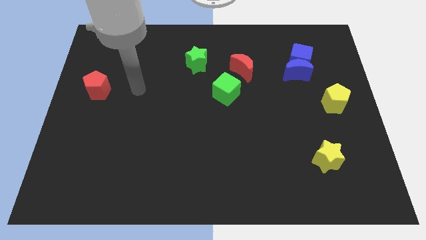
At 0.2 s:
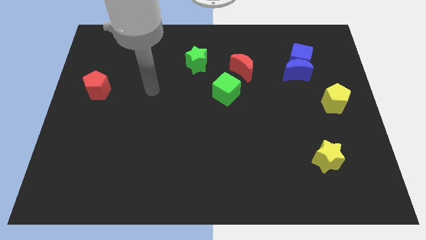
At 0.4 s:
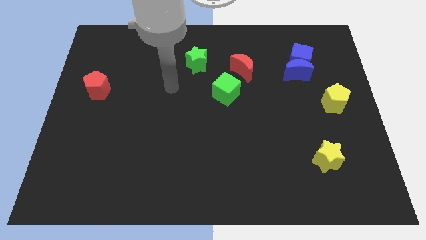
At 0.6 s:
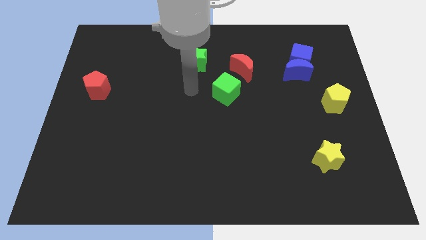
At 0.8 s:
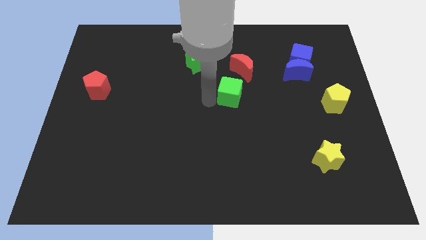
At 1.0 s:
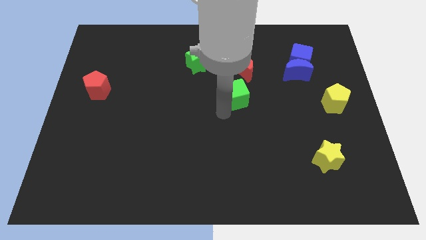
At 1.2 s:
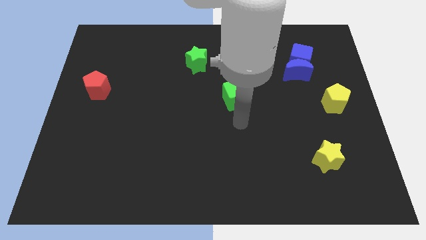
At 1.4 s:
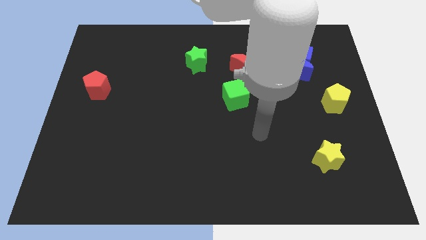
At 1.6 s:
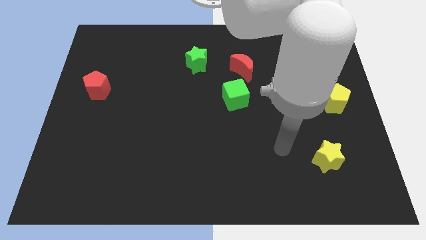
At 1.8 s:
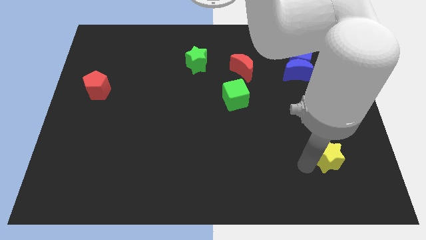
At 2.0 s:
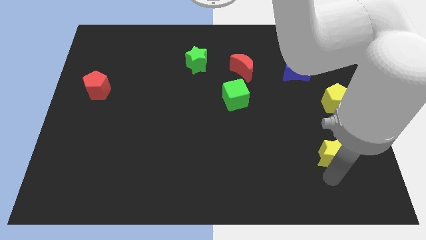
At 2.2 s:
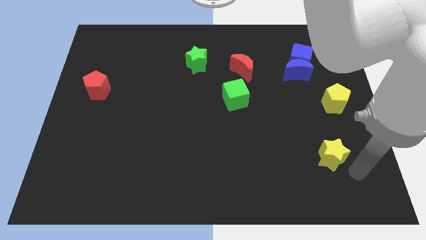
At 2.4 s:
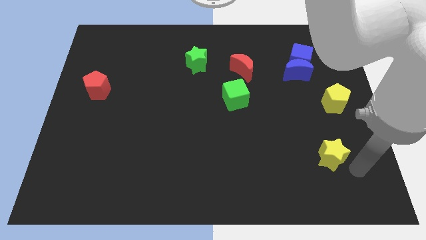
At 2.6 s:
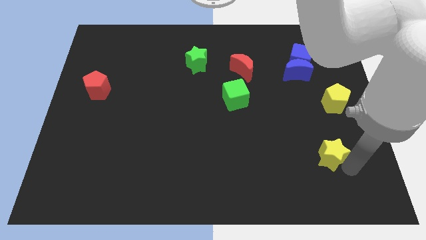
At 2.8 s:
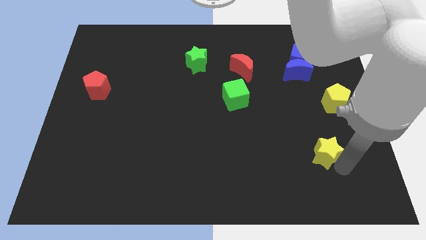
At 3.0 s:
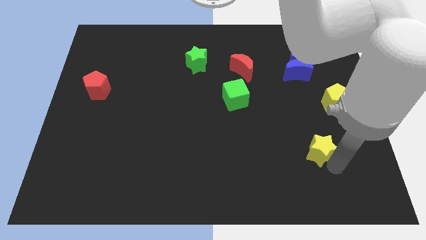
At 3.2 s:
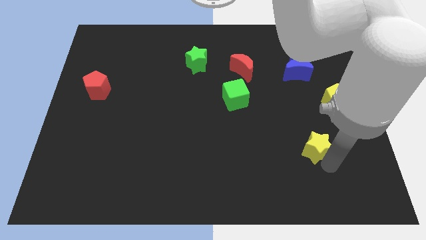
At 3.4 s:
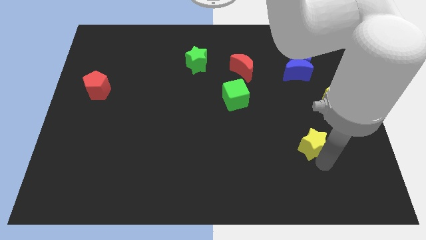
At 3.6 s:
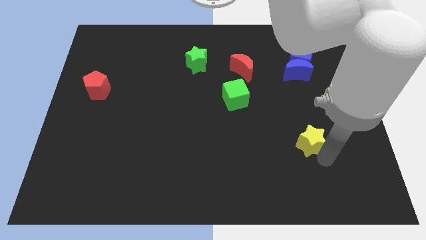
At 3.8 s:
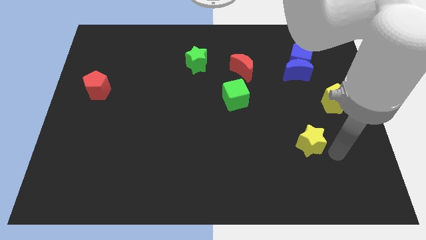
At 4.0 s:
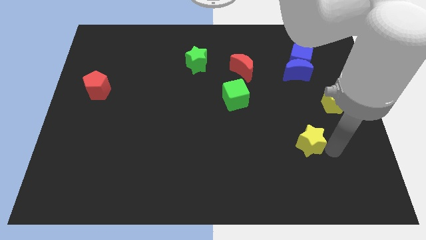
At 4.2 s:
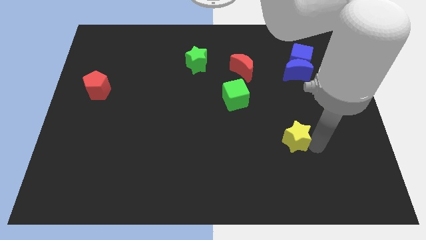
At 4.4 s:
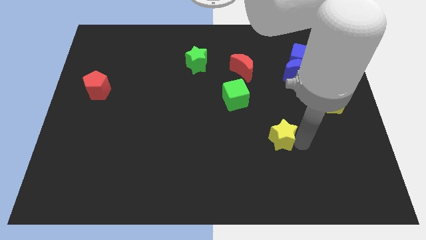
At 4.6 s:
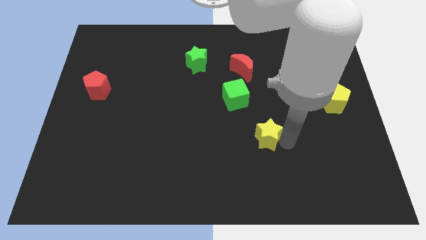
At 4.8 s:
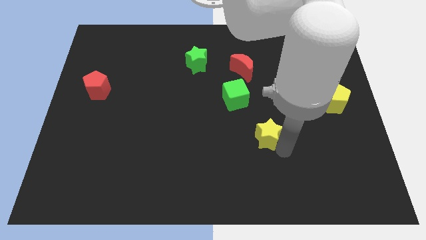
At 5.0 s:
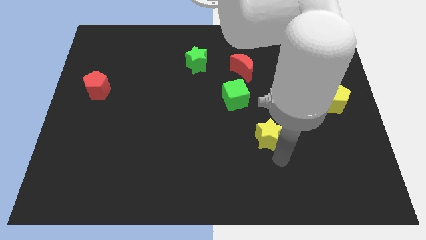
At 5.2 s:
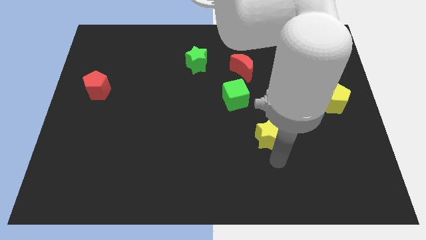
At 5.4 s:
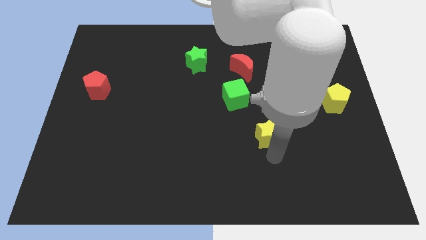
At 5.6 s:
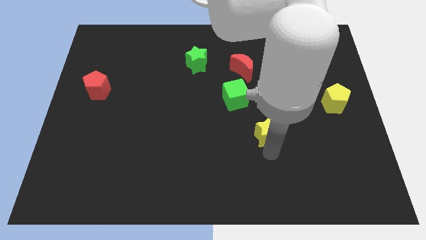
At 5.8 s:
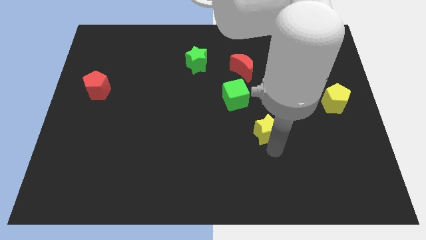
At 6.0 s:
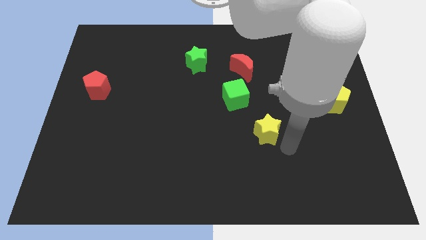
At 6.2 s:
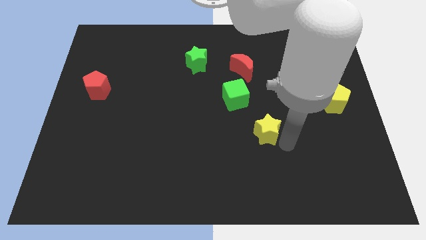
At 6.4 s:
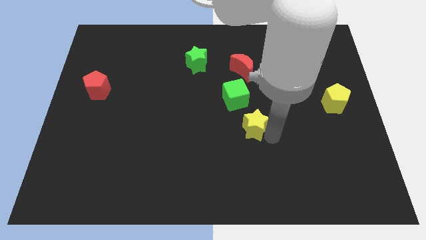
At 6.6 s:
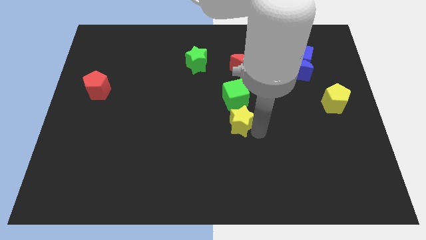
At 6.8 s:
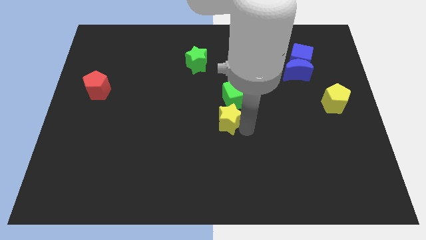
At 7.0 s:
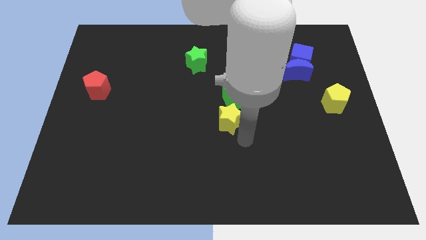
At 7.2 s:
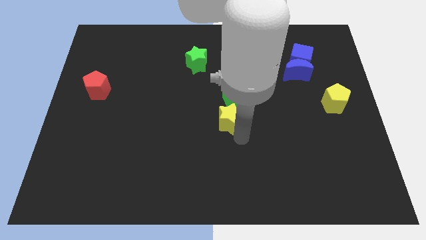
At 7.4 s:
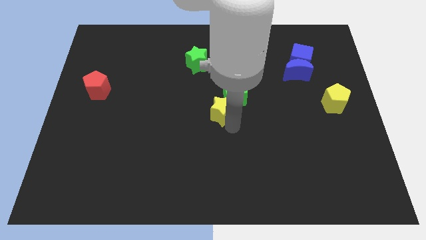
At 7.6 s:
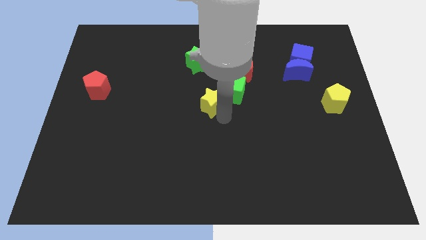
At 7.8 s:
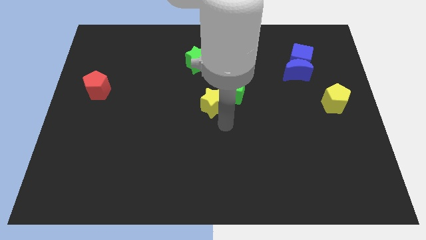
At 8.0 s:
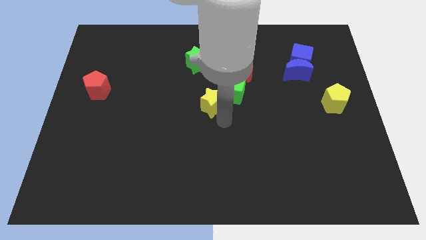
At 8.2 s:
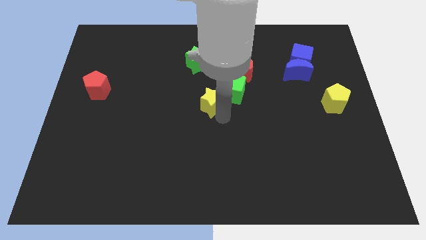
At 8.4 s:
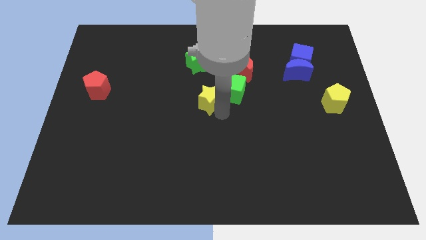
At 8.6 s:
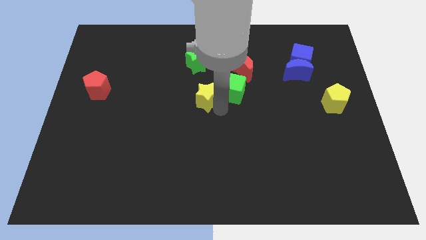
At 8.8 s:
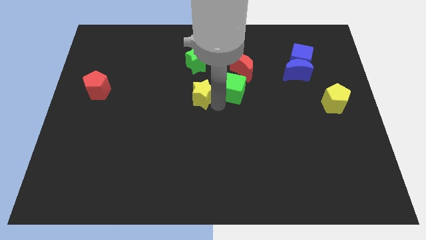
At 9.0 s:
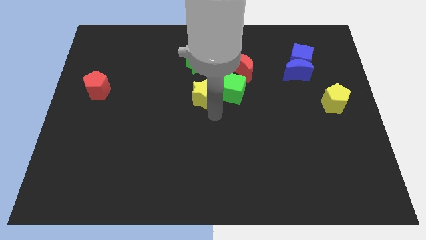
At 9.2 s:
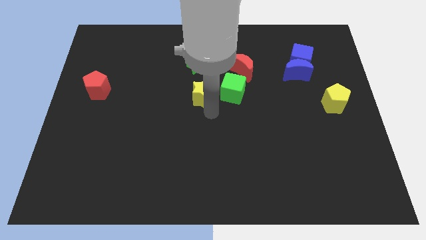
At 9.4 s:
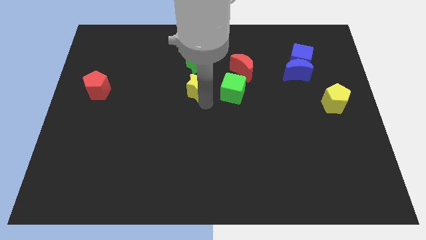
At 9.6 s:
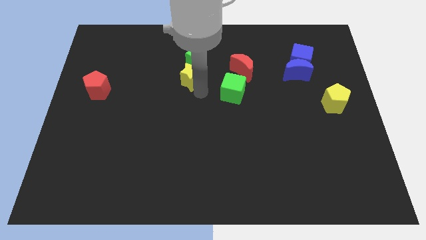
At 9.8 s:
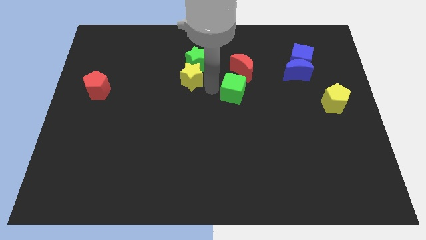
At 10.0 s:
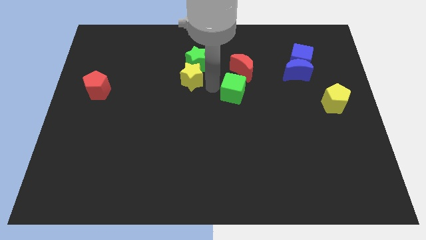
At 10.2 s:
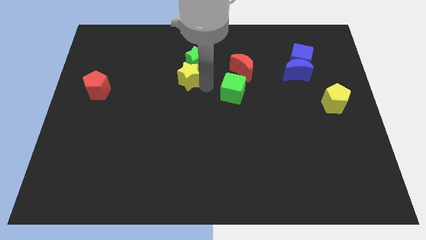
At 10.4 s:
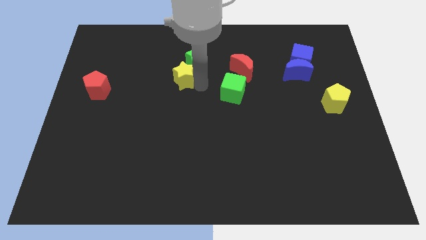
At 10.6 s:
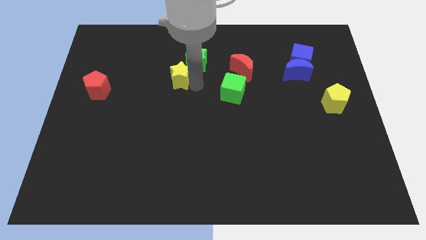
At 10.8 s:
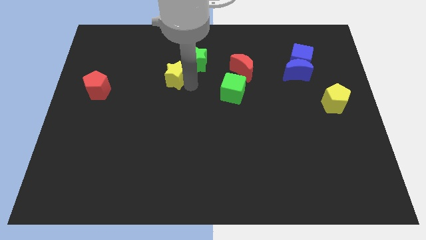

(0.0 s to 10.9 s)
move the yellow star left of the green star

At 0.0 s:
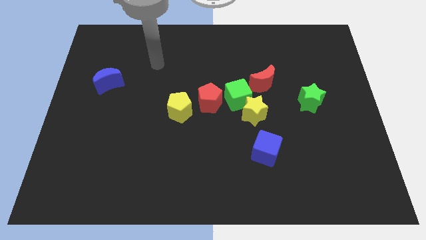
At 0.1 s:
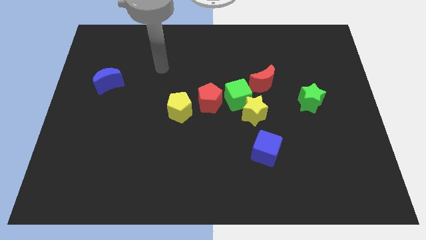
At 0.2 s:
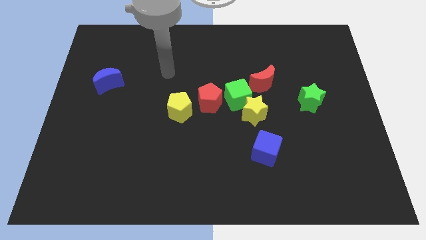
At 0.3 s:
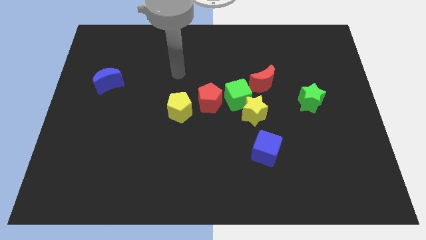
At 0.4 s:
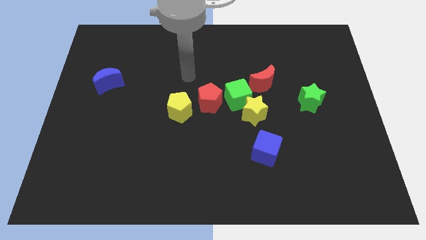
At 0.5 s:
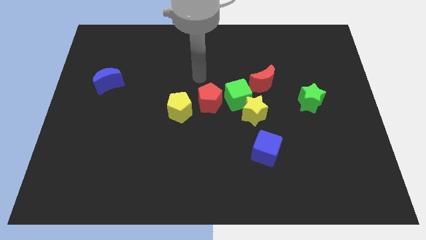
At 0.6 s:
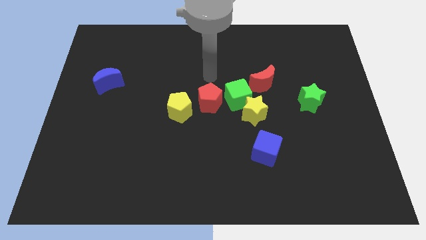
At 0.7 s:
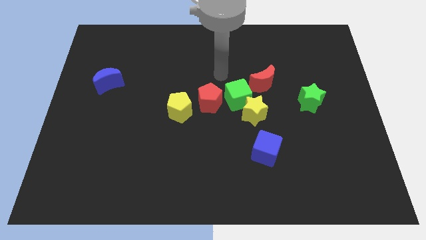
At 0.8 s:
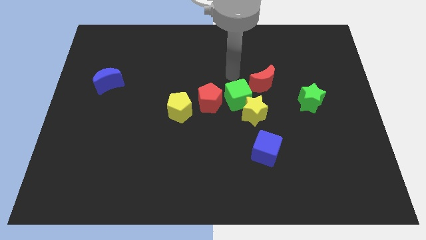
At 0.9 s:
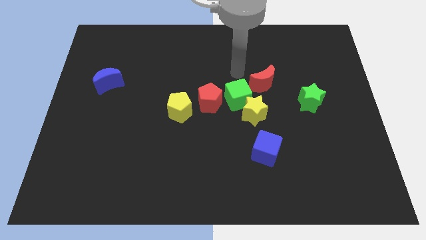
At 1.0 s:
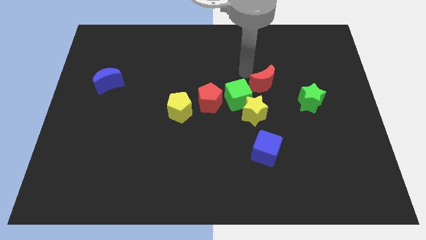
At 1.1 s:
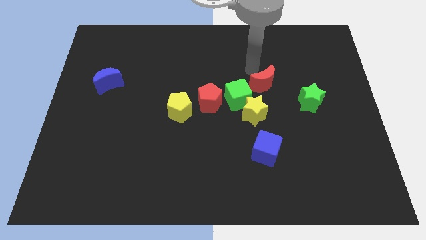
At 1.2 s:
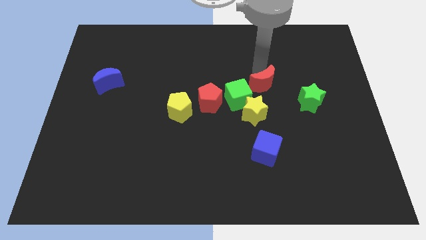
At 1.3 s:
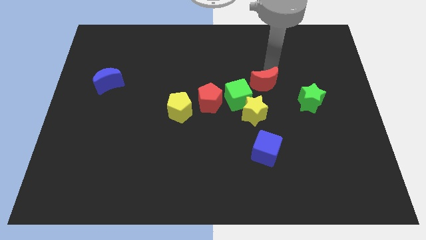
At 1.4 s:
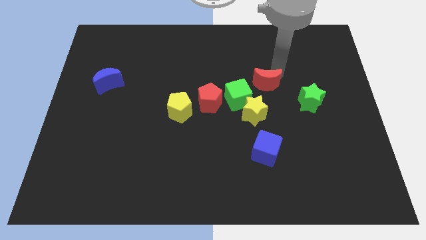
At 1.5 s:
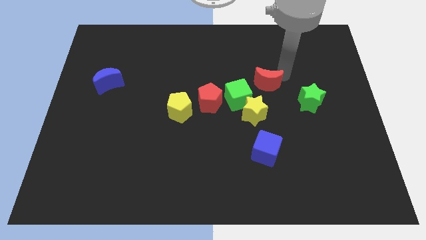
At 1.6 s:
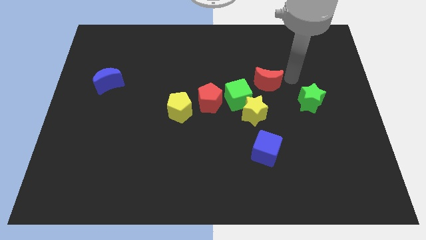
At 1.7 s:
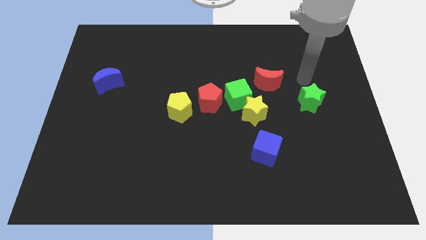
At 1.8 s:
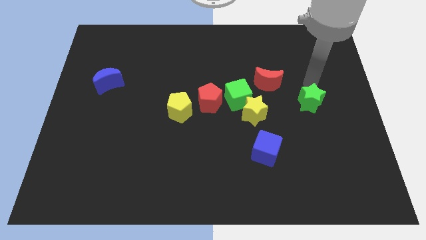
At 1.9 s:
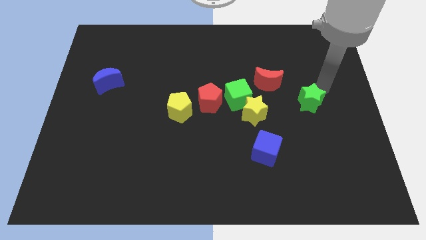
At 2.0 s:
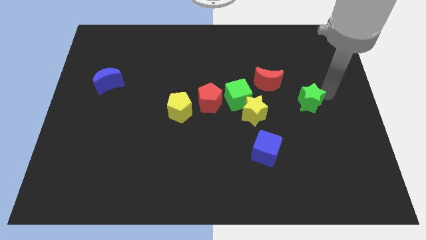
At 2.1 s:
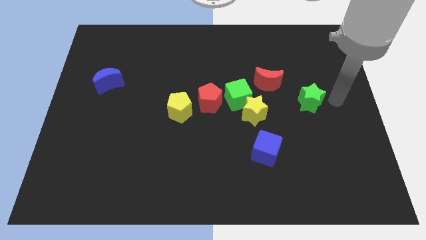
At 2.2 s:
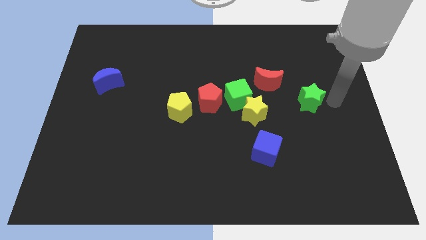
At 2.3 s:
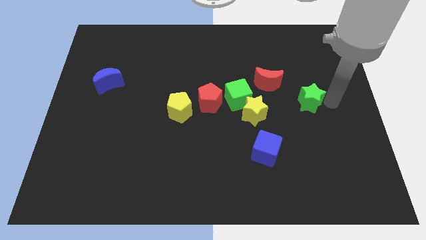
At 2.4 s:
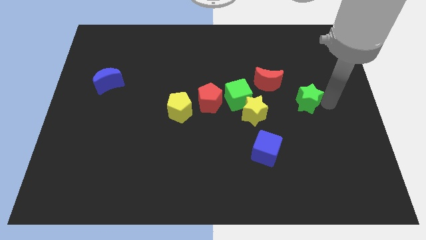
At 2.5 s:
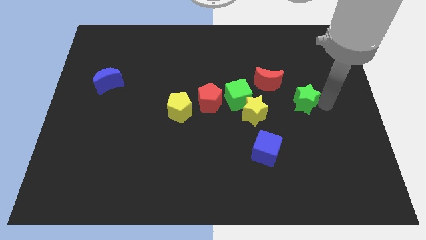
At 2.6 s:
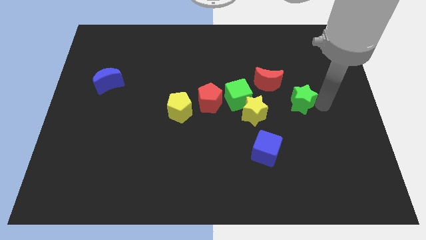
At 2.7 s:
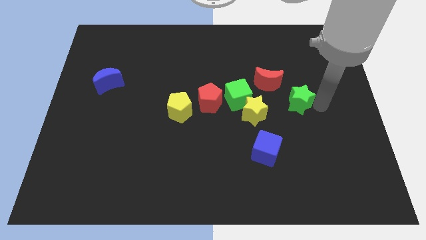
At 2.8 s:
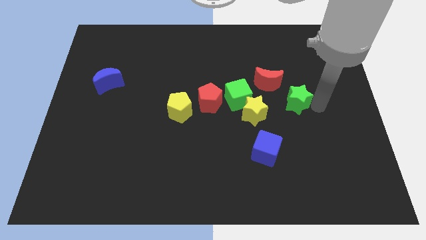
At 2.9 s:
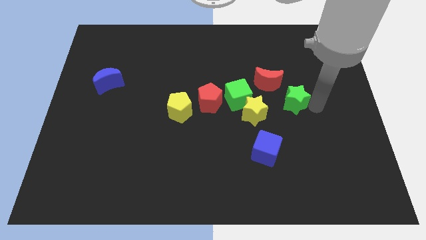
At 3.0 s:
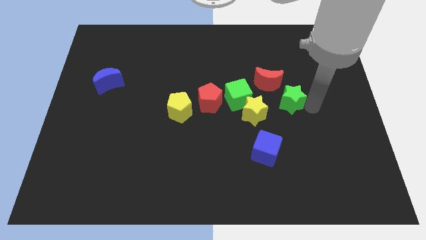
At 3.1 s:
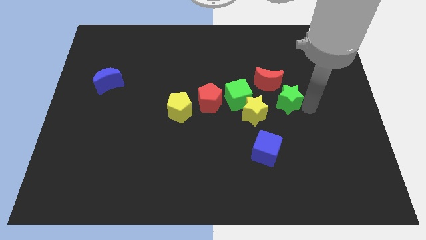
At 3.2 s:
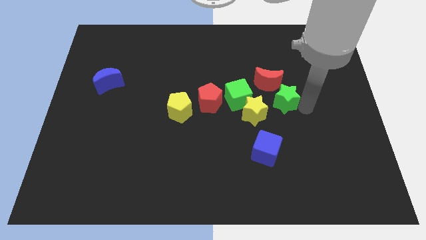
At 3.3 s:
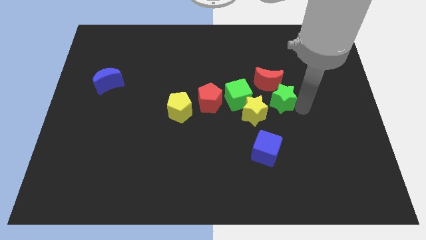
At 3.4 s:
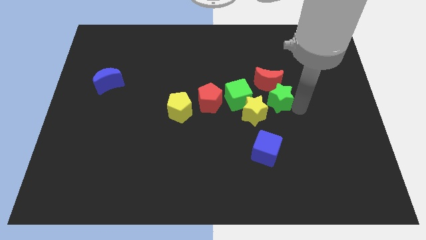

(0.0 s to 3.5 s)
slide the green star to the top of the blue cube
